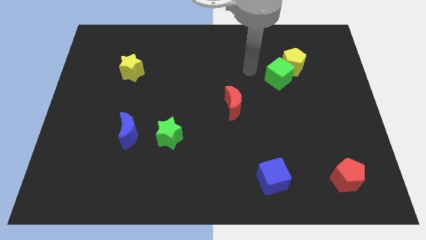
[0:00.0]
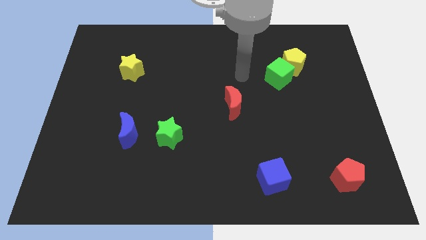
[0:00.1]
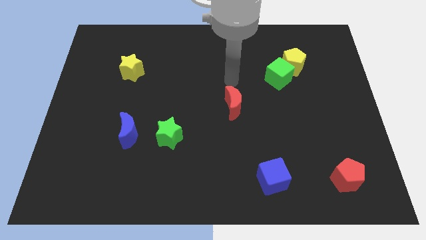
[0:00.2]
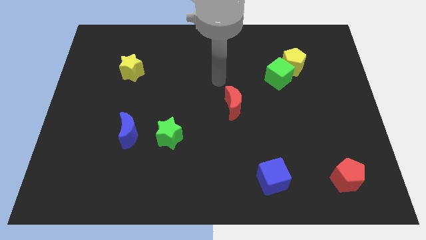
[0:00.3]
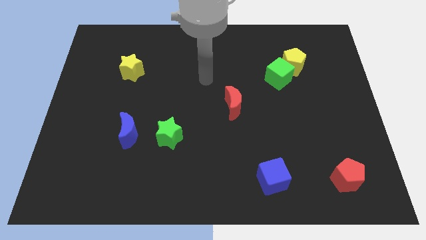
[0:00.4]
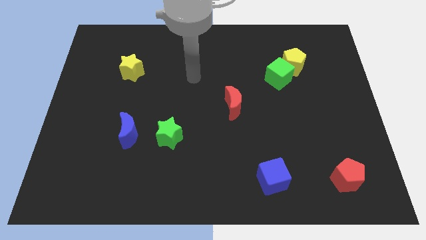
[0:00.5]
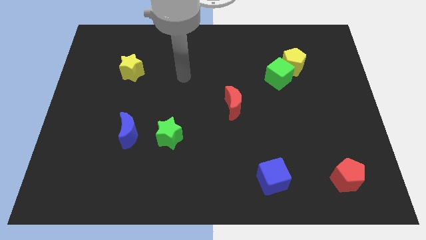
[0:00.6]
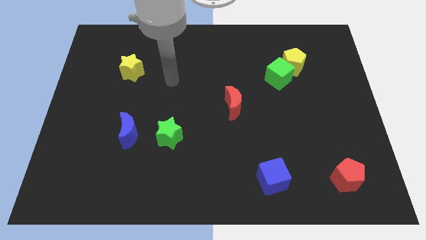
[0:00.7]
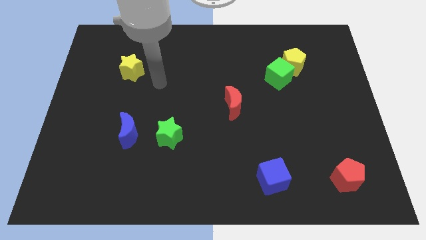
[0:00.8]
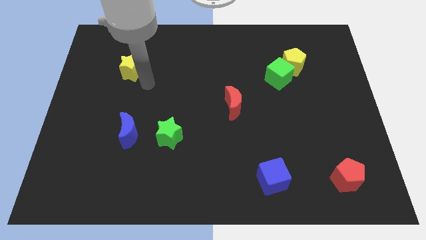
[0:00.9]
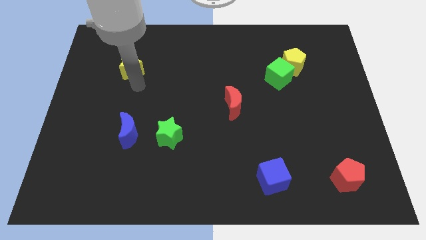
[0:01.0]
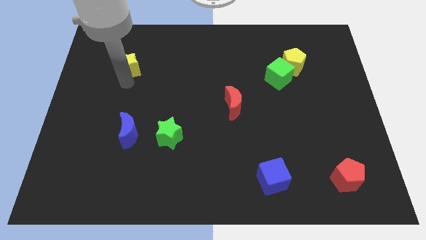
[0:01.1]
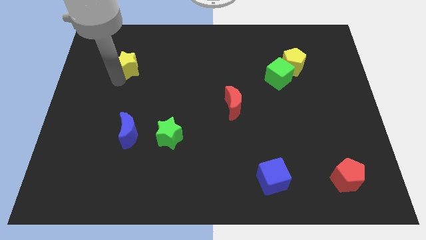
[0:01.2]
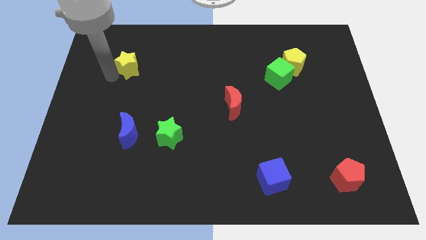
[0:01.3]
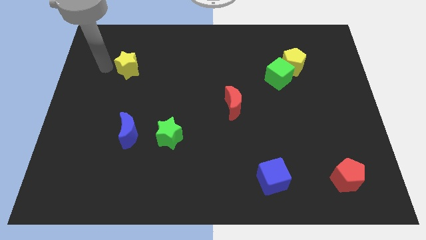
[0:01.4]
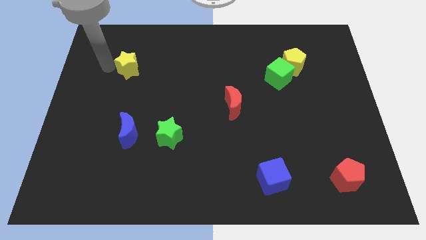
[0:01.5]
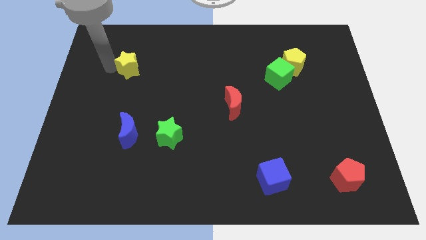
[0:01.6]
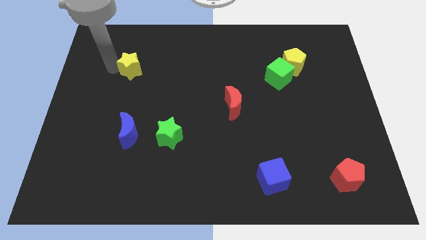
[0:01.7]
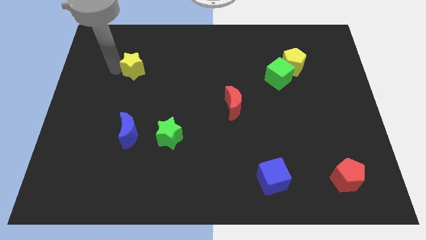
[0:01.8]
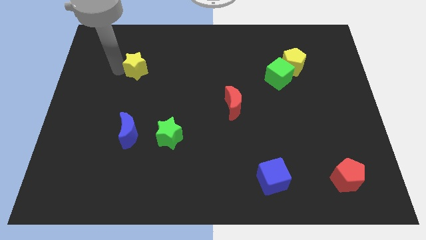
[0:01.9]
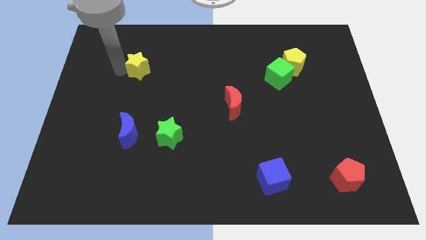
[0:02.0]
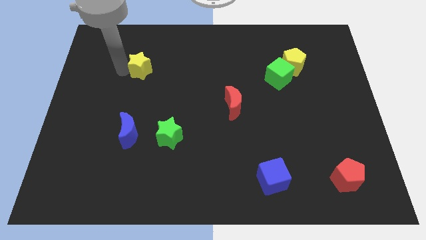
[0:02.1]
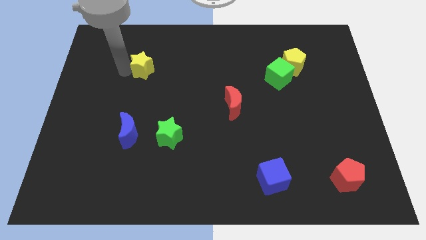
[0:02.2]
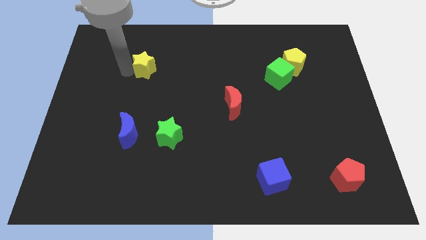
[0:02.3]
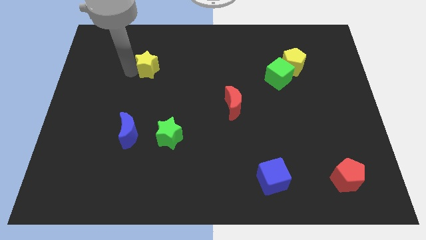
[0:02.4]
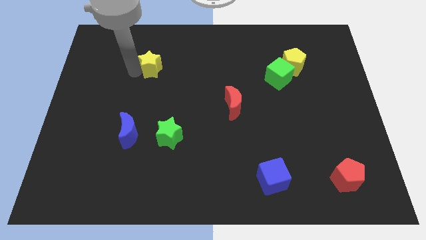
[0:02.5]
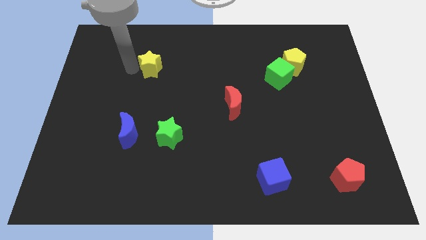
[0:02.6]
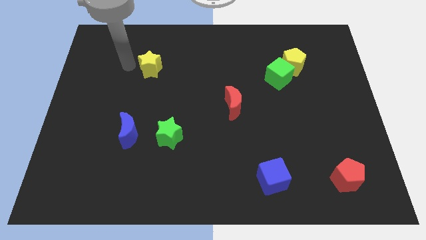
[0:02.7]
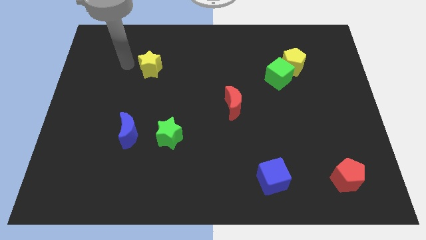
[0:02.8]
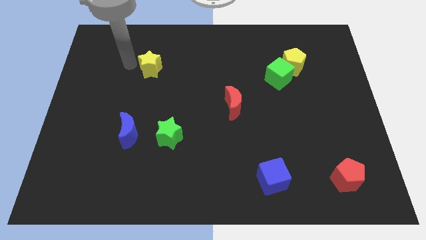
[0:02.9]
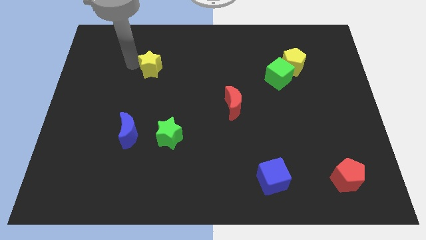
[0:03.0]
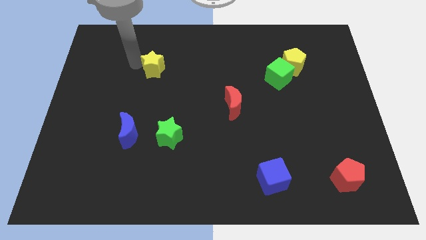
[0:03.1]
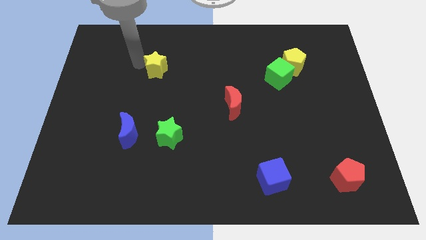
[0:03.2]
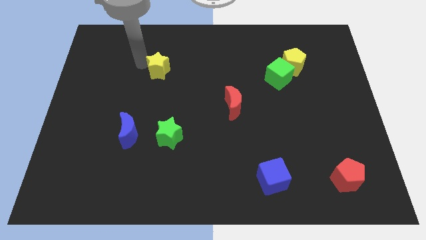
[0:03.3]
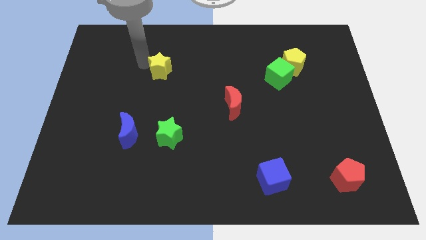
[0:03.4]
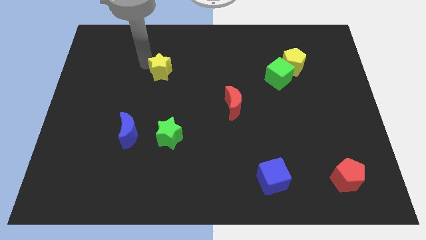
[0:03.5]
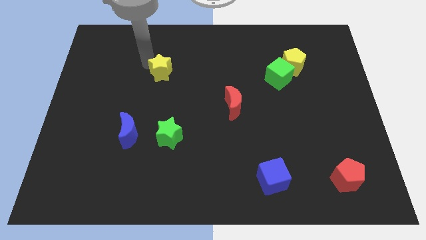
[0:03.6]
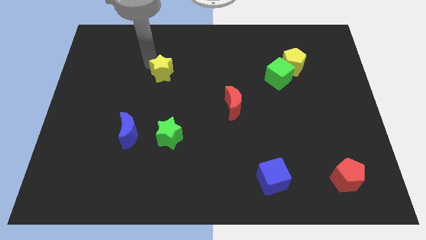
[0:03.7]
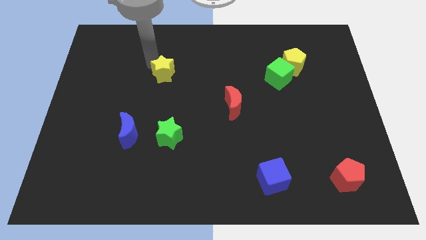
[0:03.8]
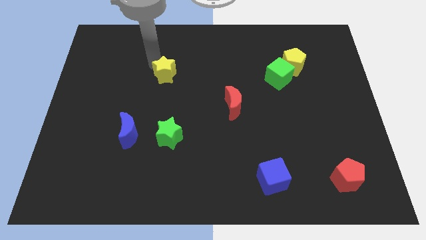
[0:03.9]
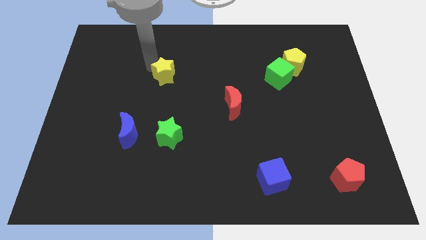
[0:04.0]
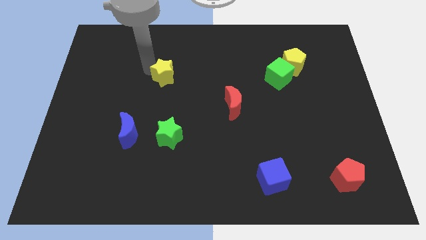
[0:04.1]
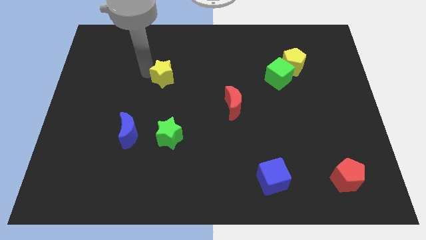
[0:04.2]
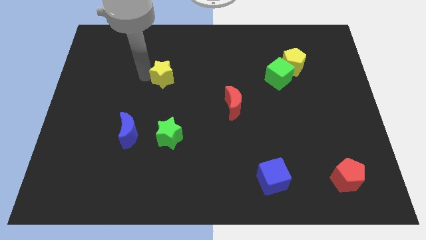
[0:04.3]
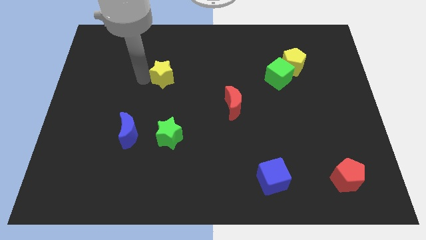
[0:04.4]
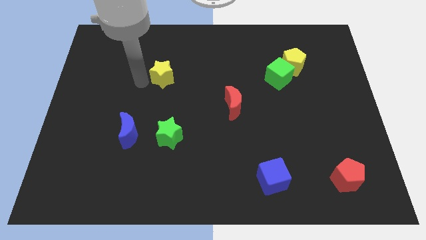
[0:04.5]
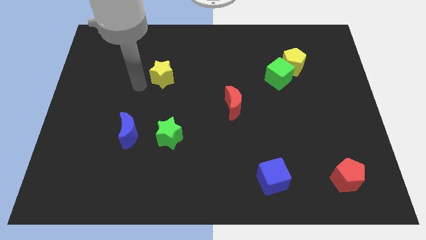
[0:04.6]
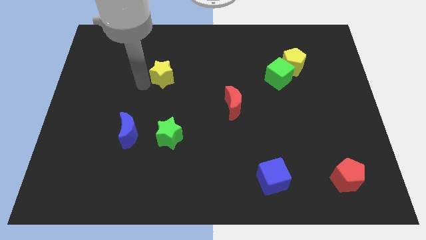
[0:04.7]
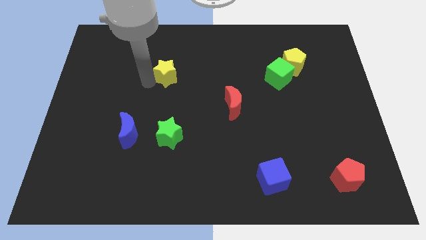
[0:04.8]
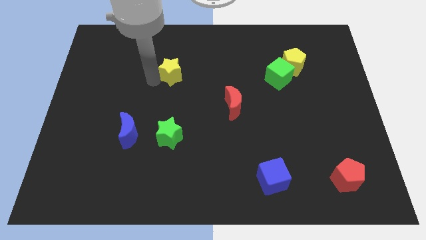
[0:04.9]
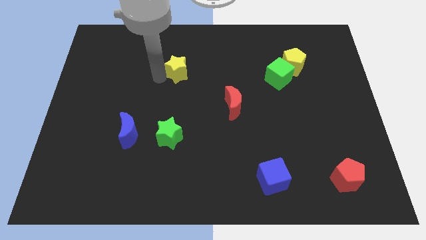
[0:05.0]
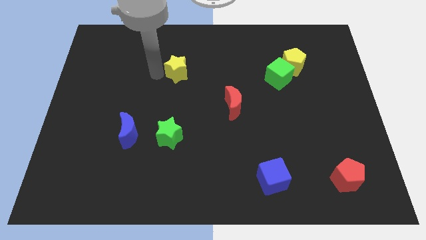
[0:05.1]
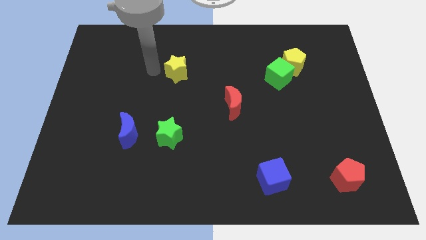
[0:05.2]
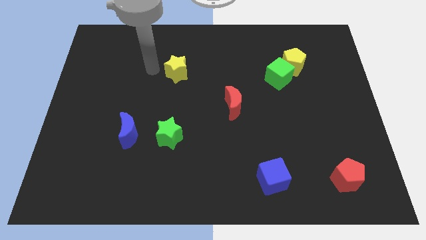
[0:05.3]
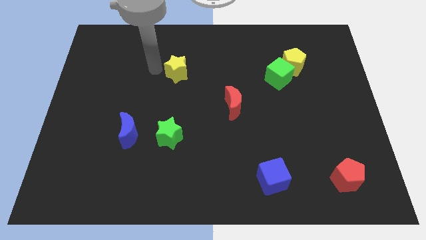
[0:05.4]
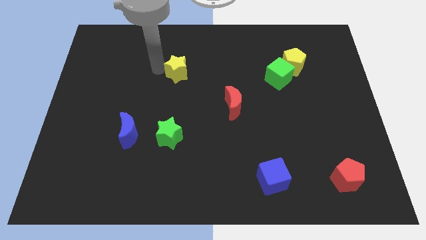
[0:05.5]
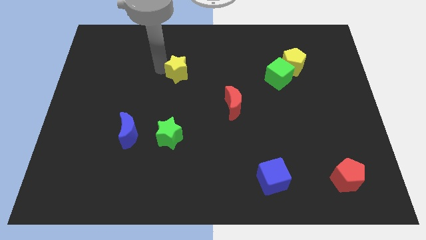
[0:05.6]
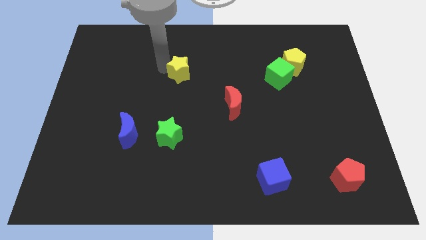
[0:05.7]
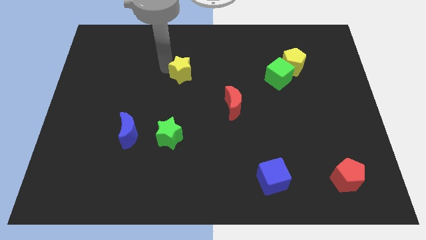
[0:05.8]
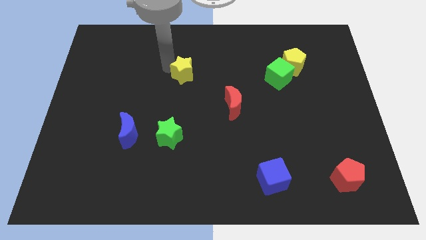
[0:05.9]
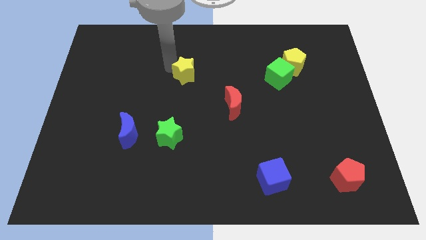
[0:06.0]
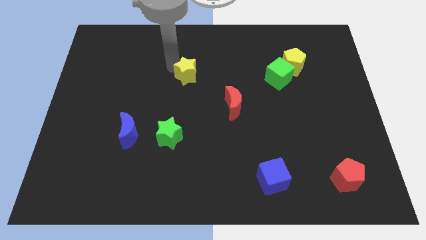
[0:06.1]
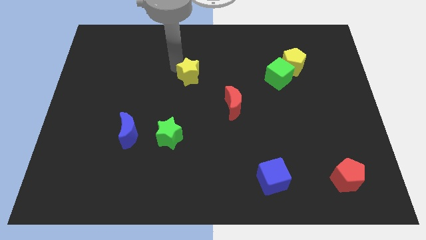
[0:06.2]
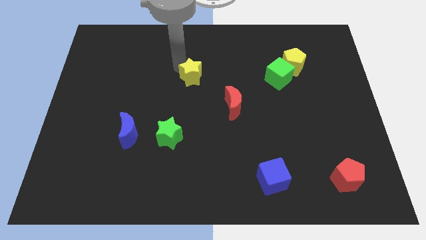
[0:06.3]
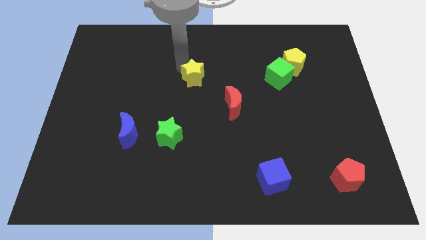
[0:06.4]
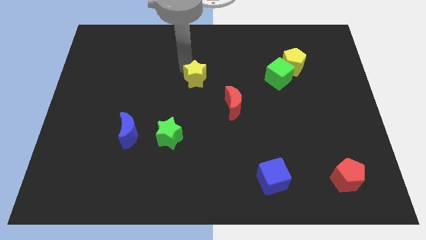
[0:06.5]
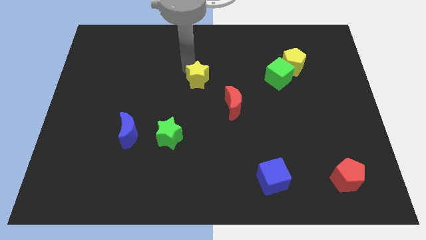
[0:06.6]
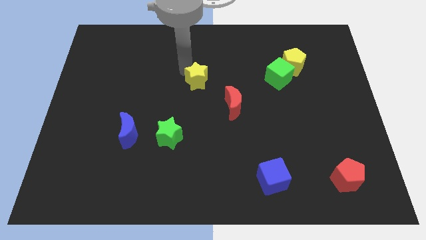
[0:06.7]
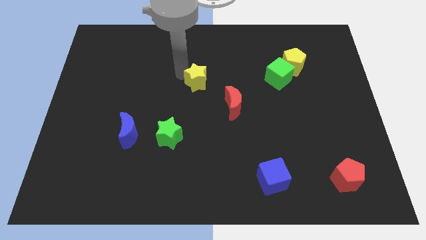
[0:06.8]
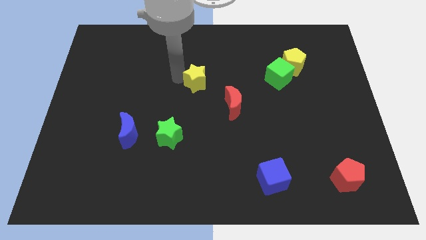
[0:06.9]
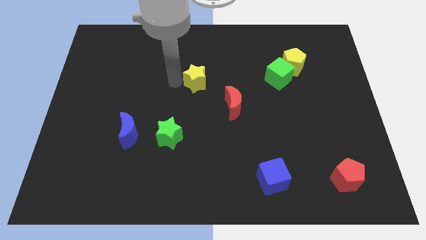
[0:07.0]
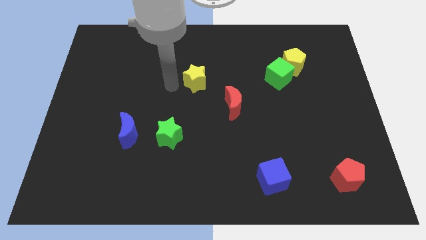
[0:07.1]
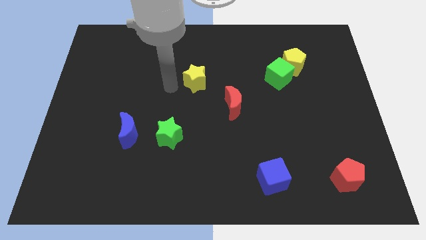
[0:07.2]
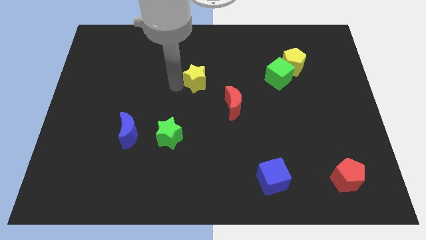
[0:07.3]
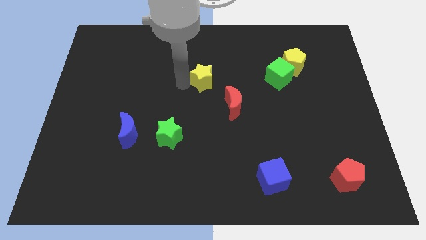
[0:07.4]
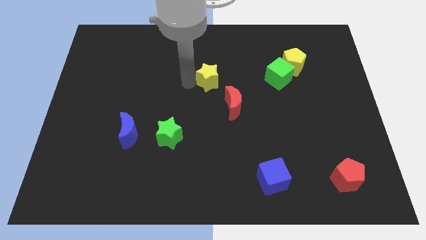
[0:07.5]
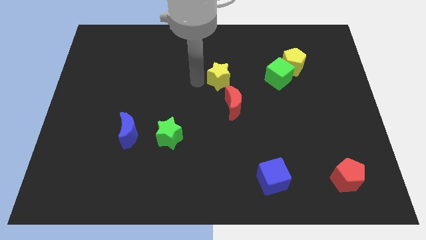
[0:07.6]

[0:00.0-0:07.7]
slide the yellow star to the right

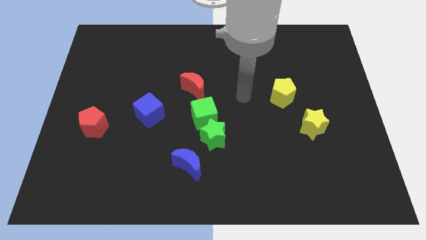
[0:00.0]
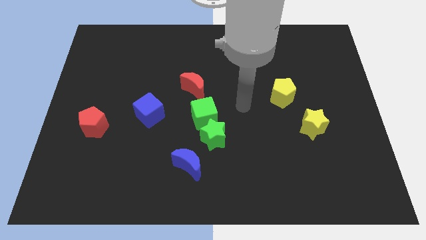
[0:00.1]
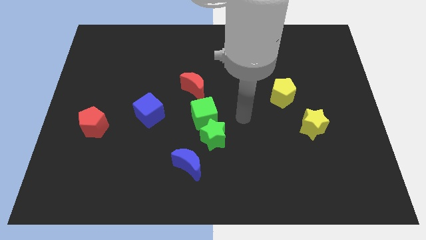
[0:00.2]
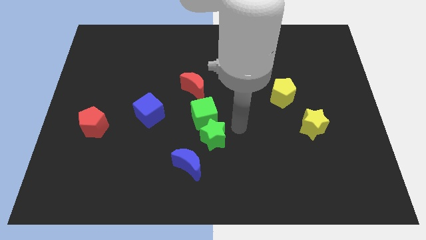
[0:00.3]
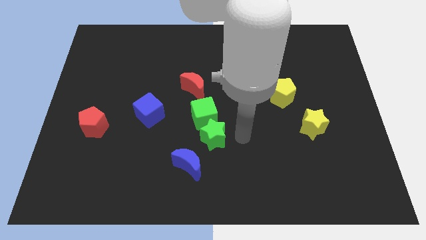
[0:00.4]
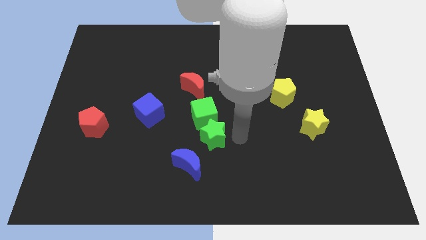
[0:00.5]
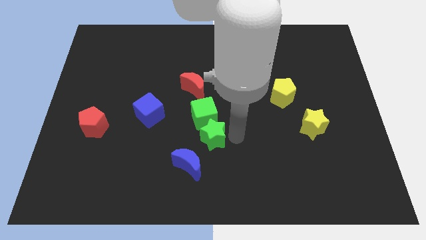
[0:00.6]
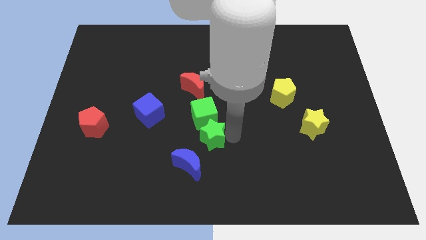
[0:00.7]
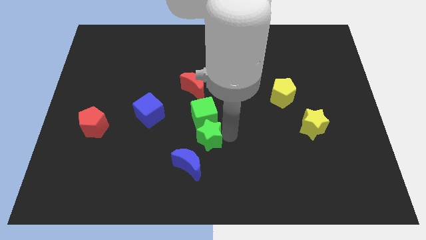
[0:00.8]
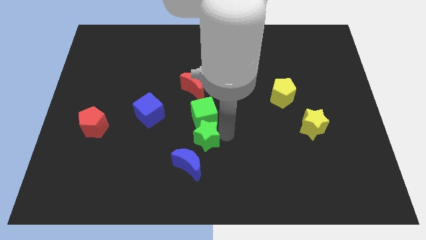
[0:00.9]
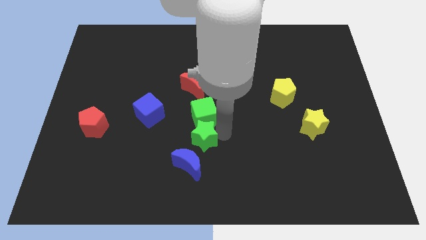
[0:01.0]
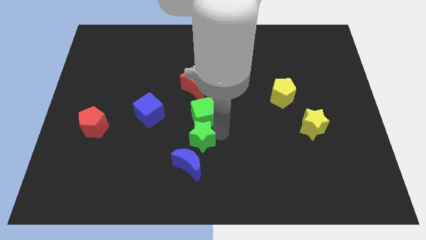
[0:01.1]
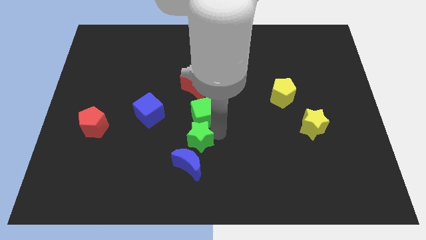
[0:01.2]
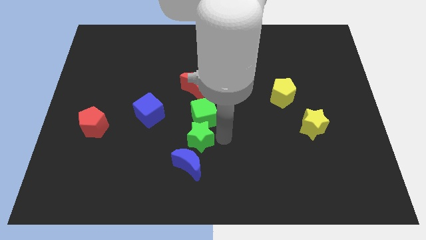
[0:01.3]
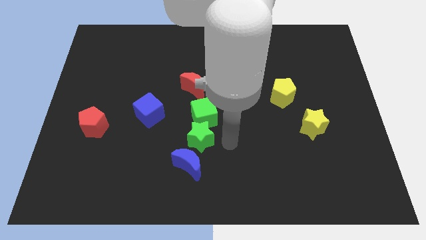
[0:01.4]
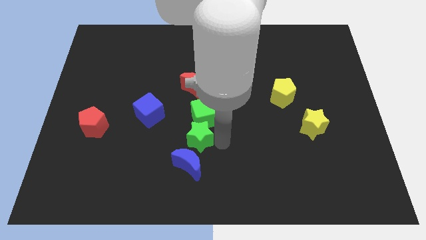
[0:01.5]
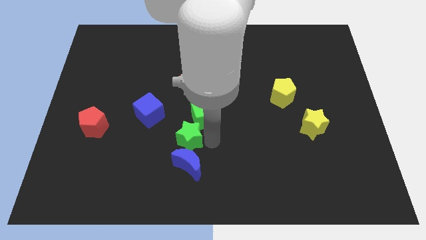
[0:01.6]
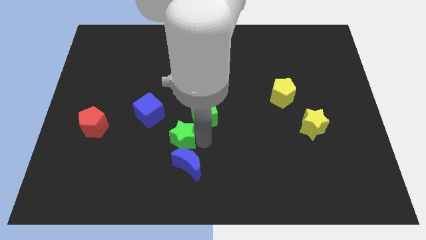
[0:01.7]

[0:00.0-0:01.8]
slide the green star left a little
